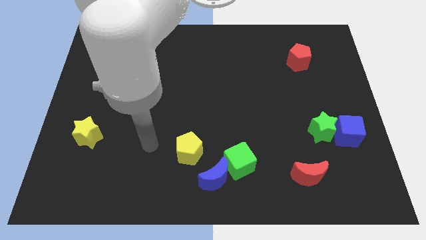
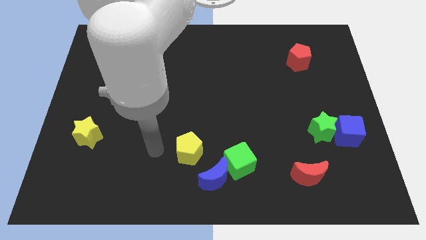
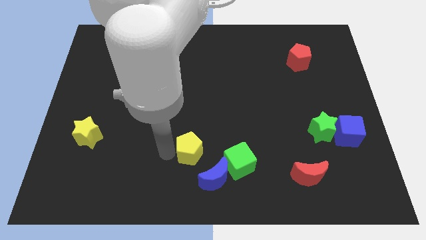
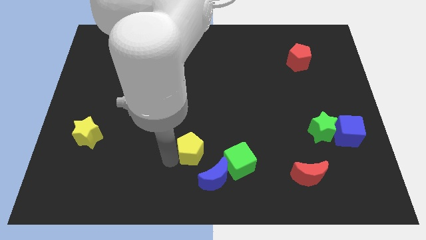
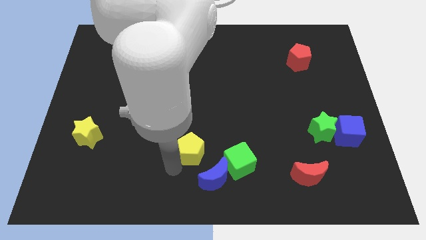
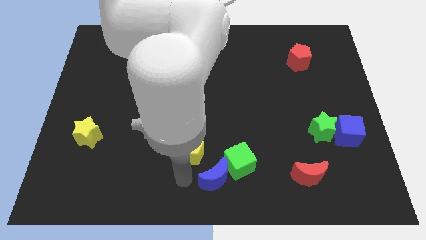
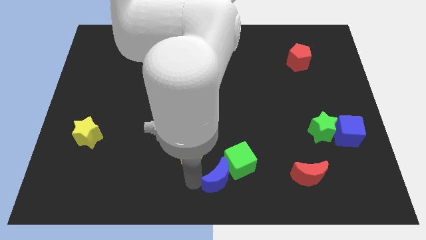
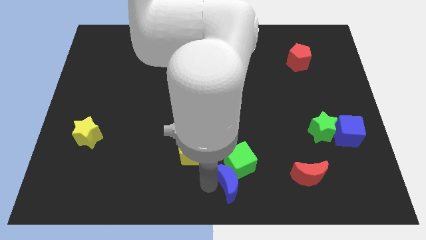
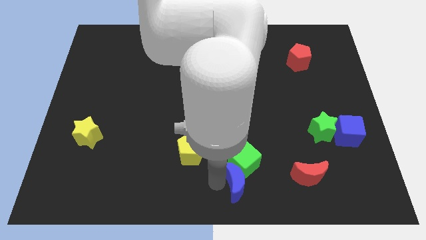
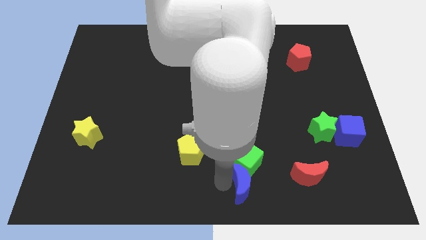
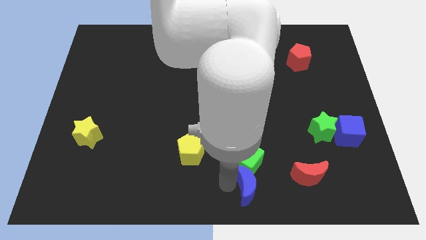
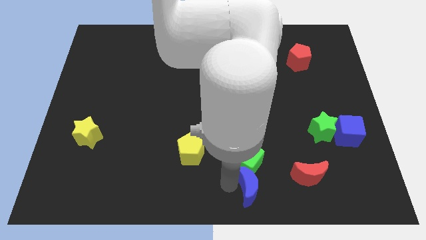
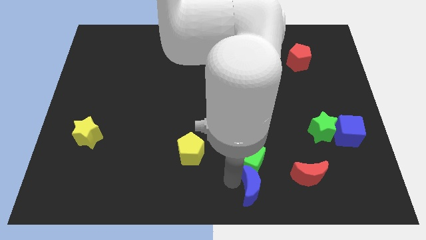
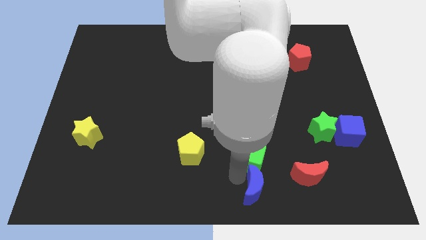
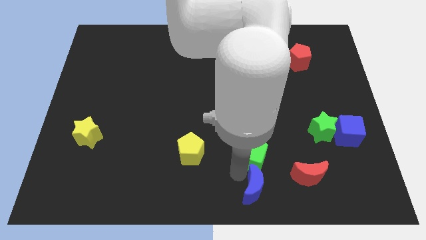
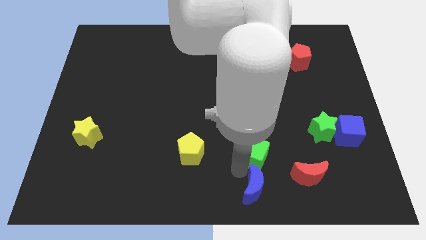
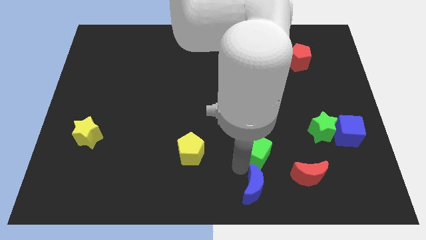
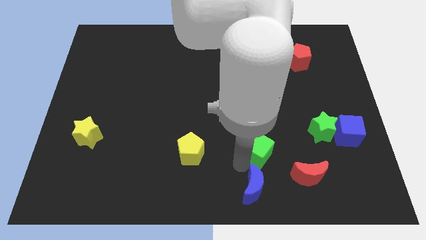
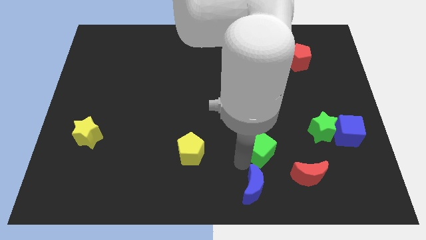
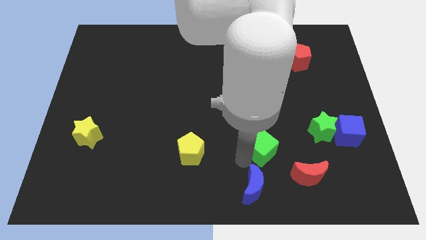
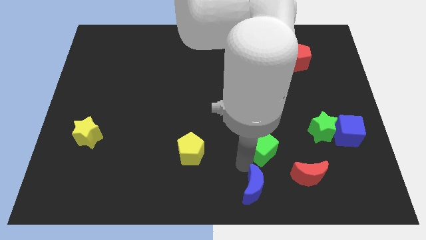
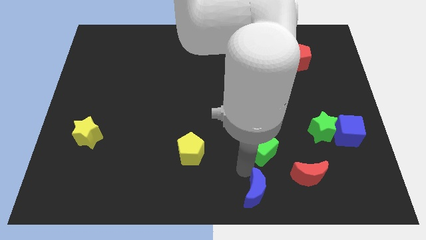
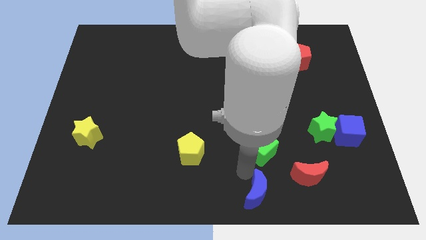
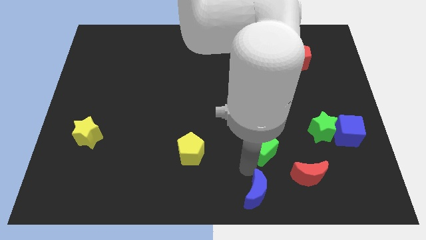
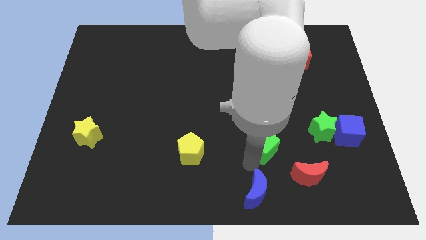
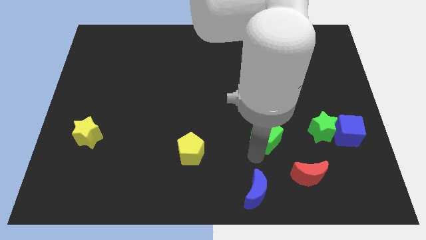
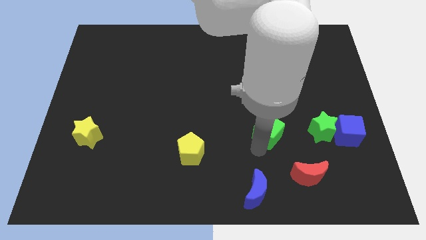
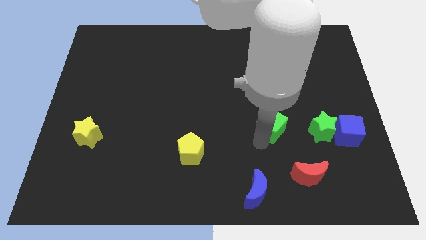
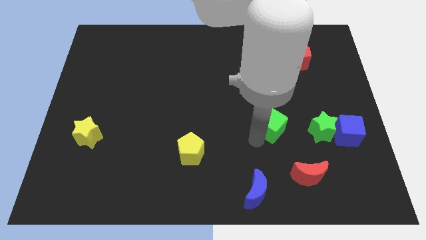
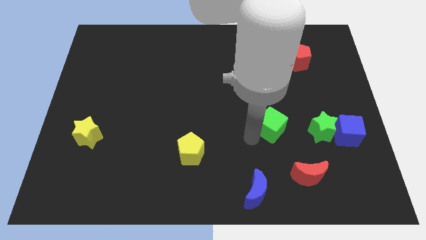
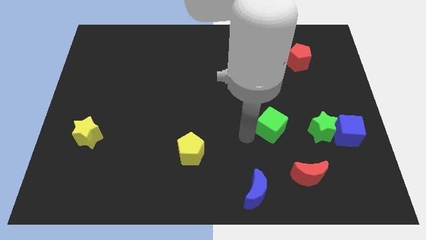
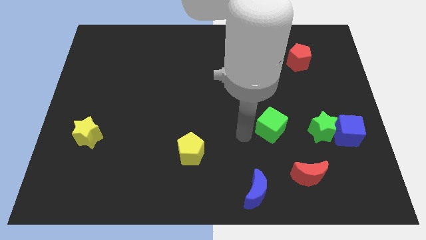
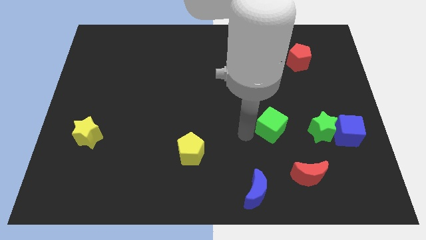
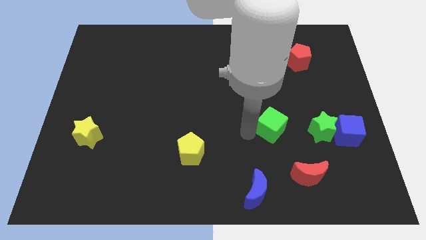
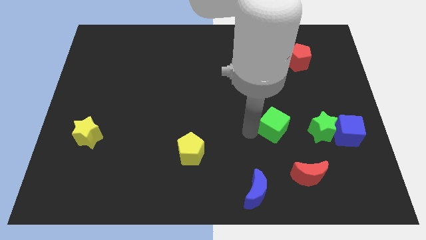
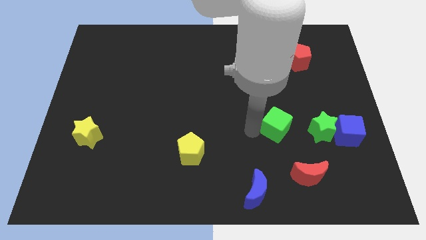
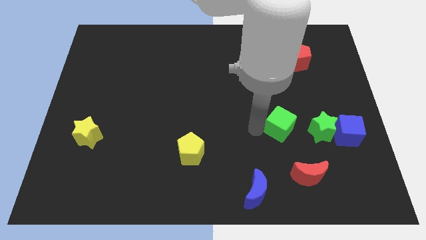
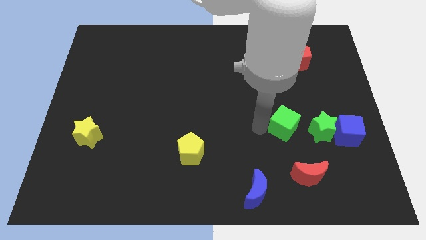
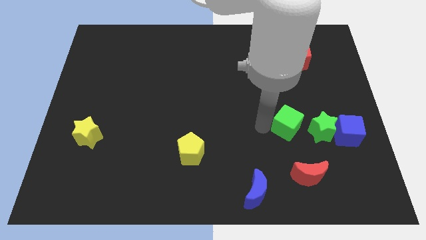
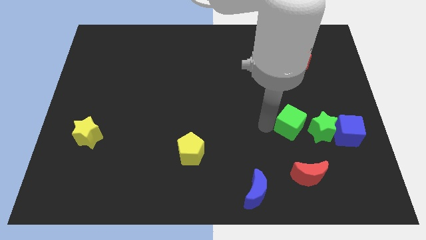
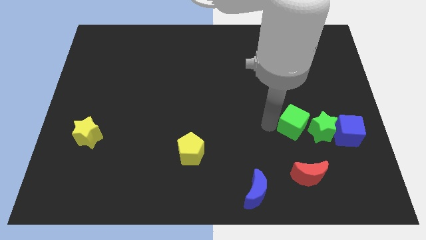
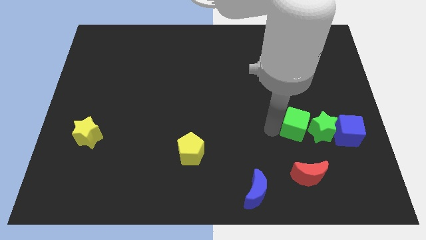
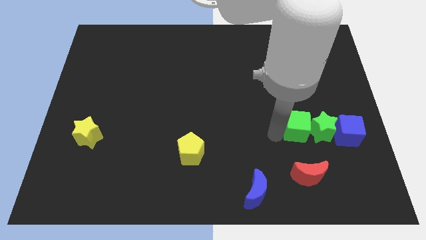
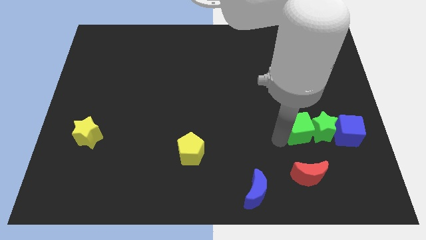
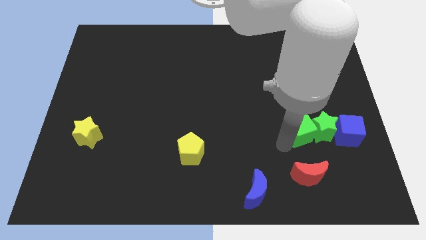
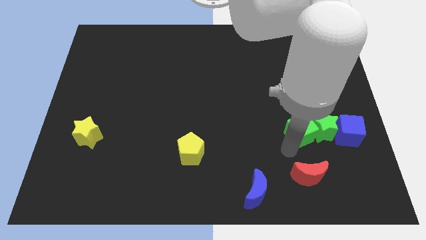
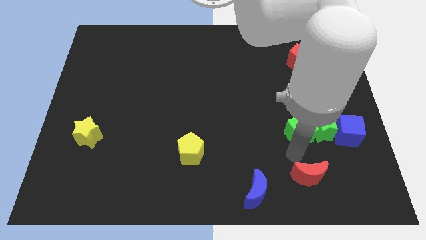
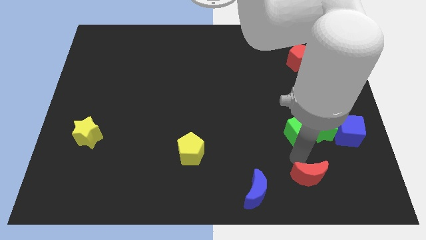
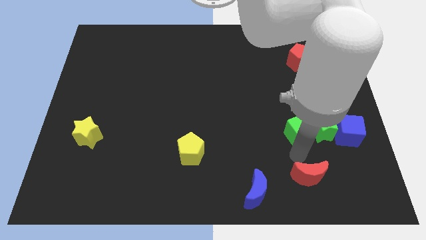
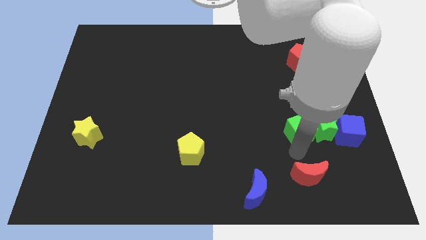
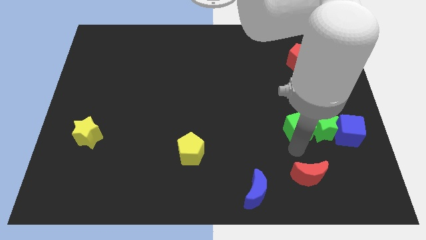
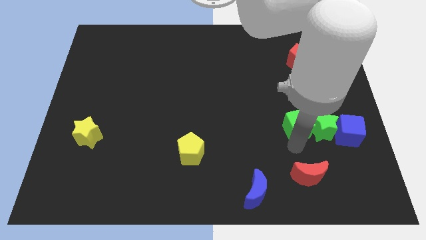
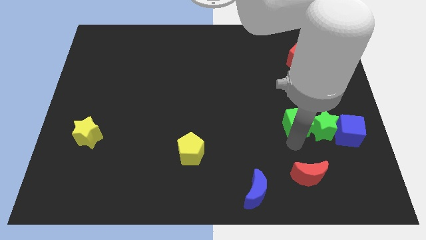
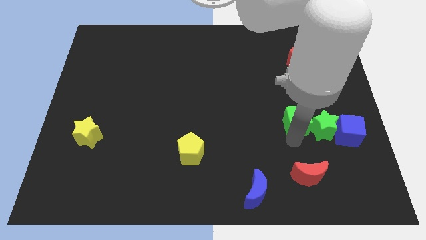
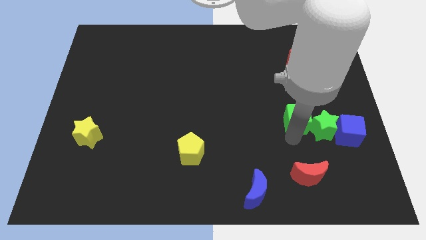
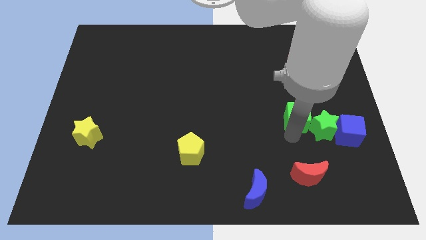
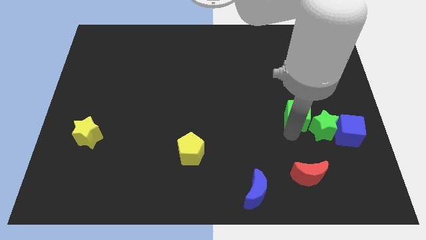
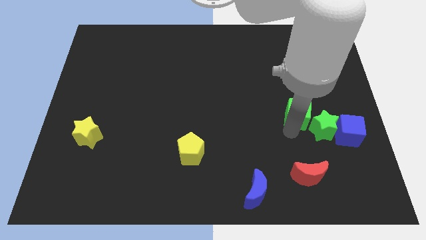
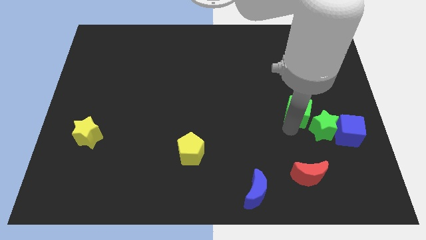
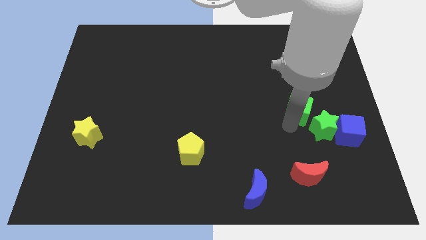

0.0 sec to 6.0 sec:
move the green cube up and then to the right

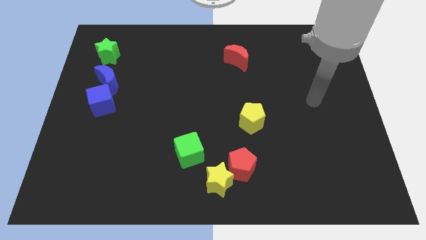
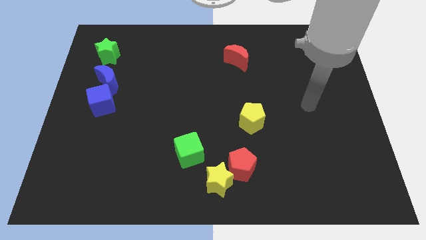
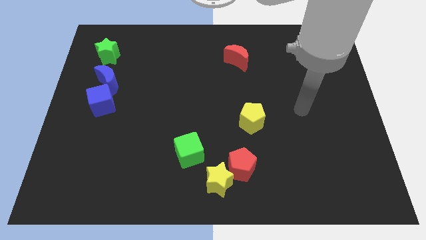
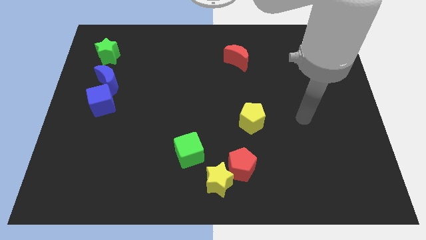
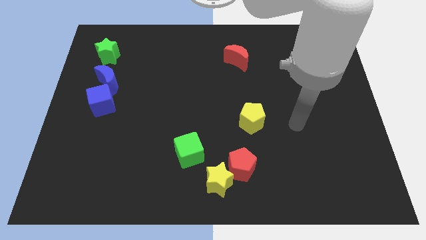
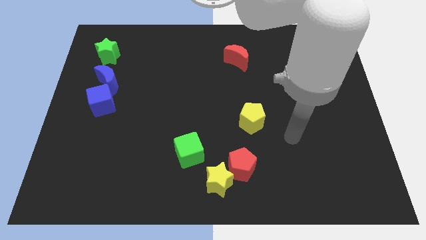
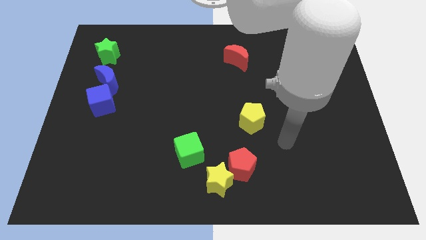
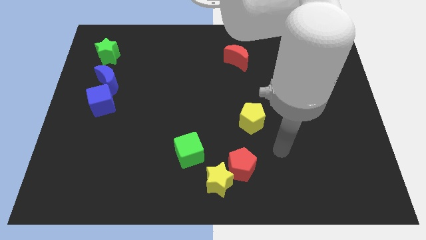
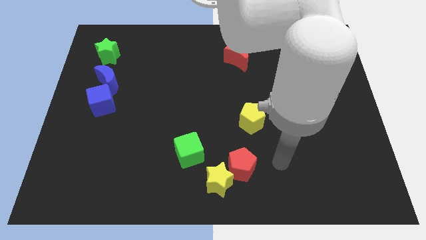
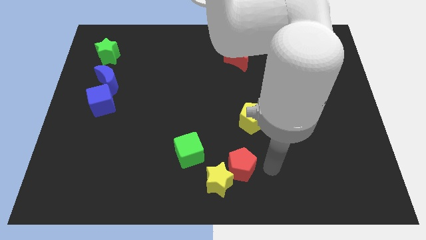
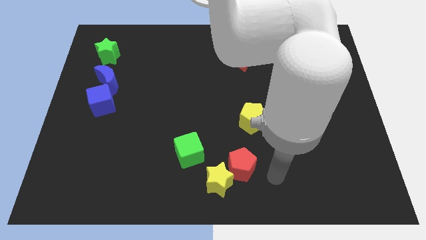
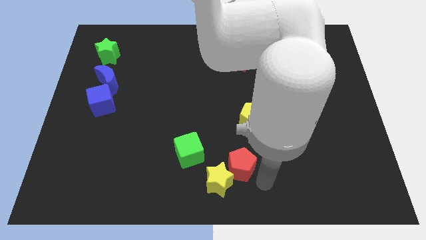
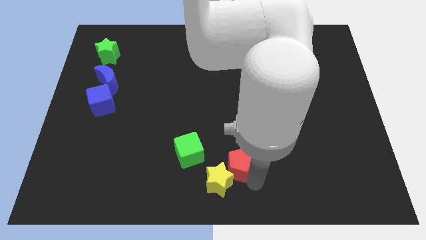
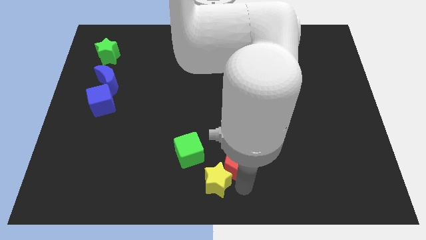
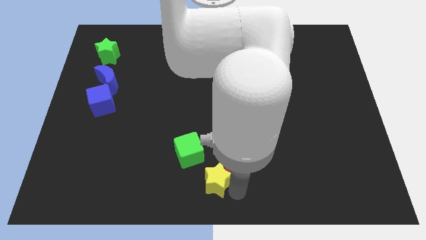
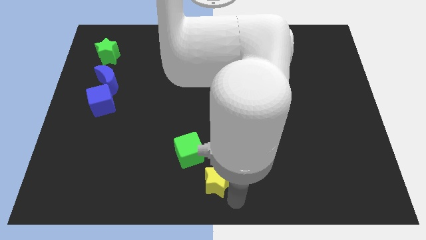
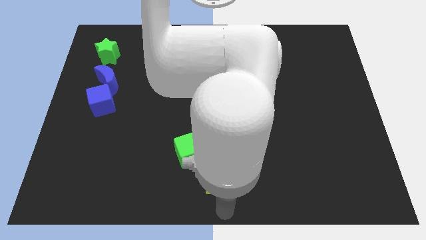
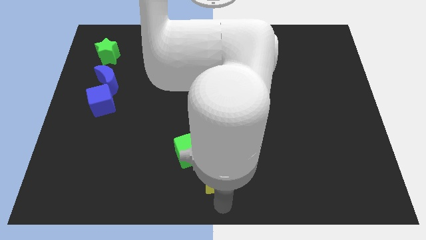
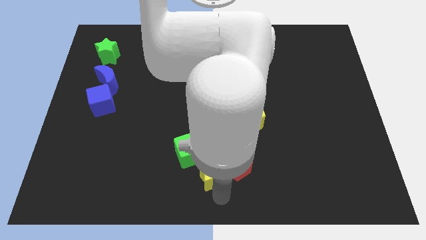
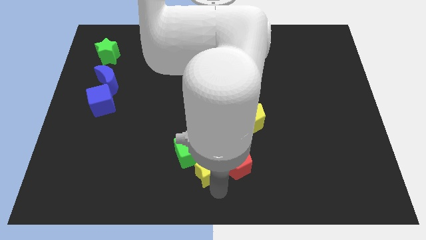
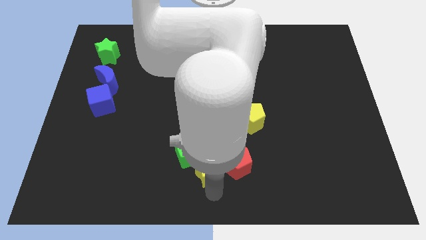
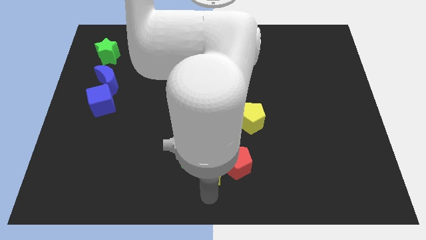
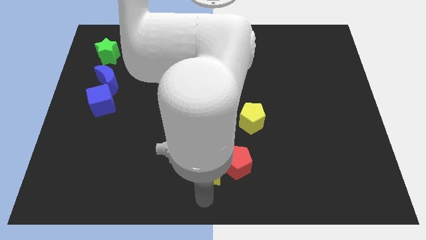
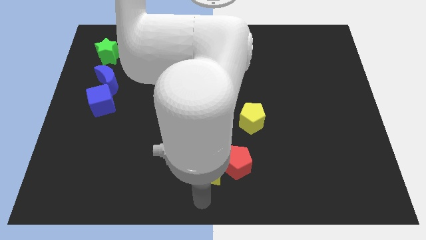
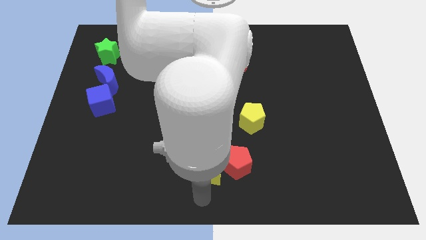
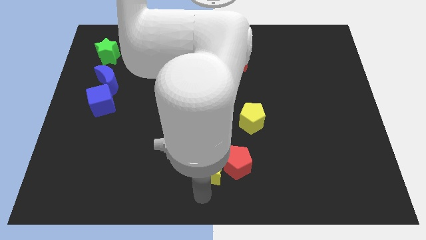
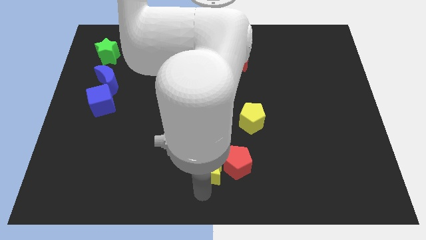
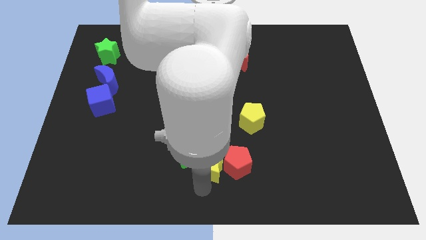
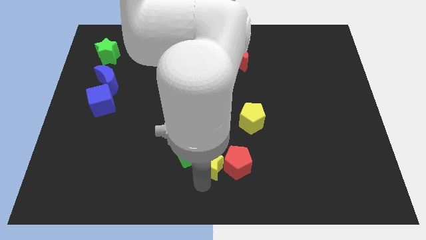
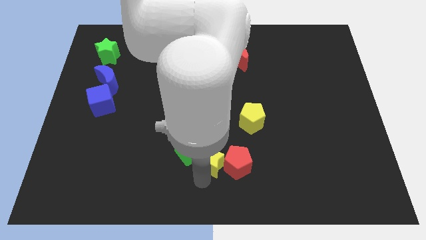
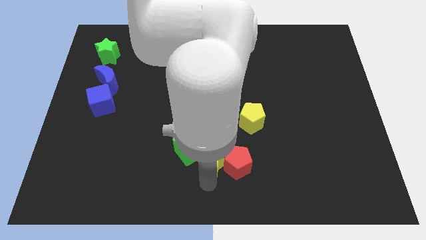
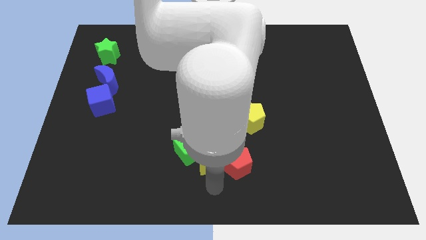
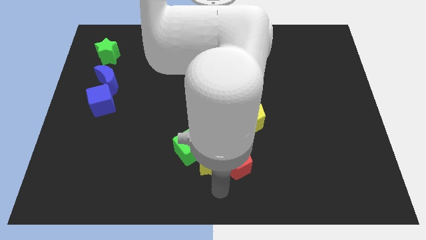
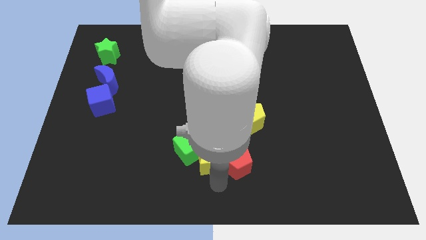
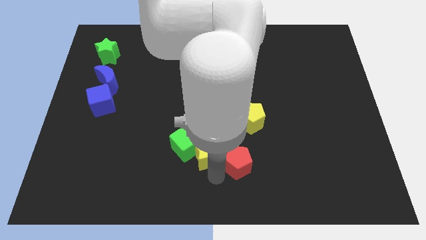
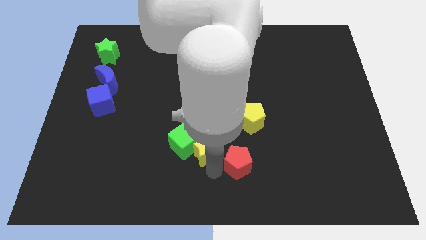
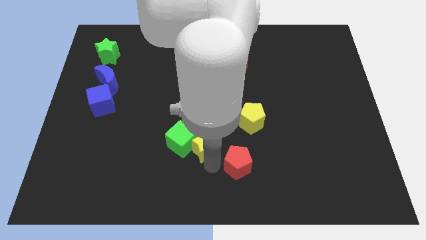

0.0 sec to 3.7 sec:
move the yellow star up and left diagonally slightly
